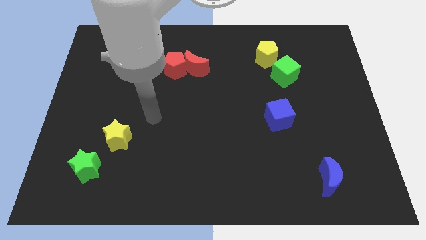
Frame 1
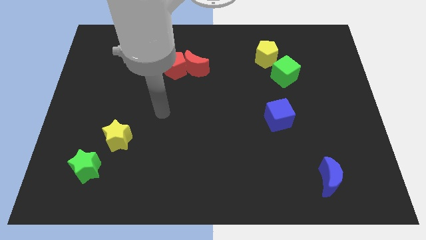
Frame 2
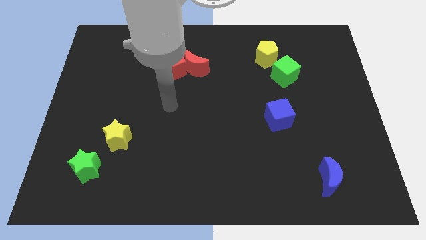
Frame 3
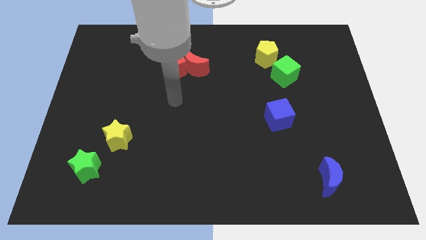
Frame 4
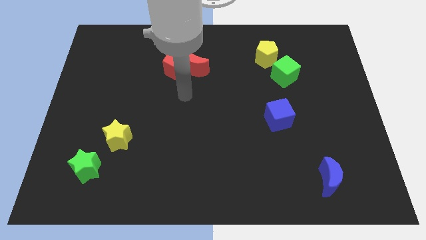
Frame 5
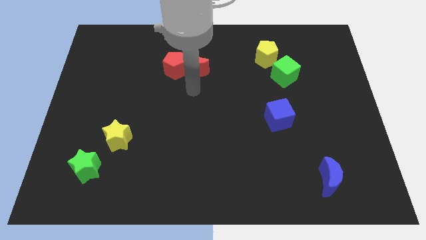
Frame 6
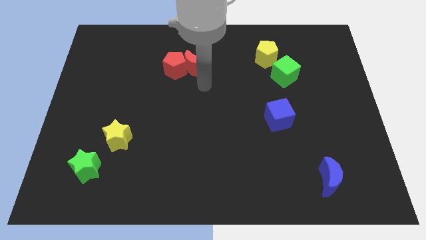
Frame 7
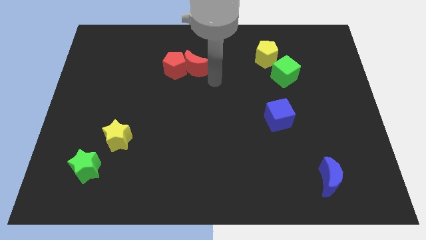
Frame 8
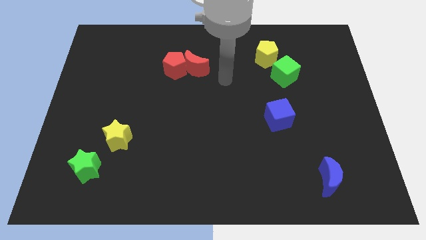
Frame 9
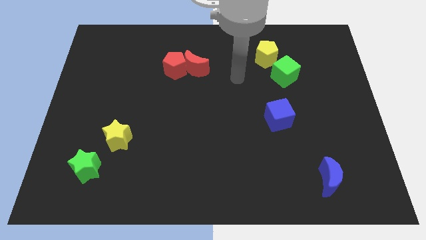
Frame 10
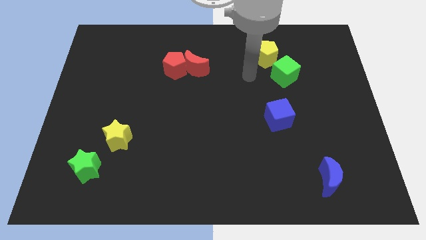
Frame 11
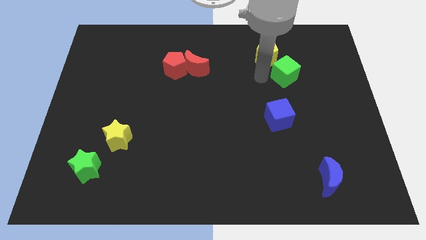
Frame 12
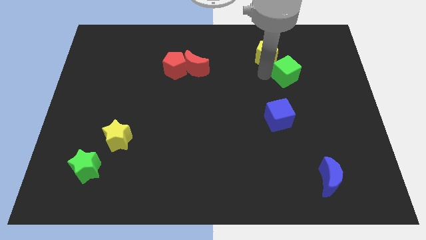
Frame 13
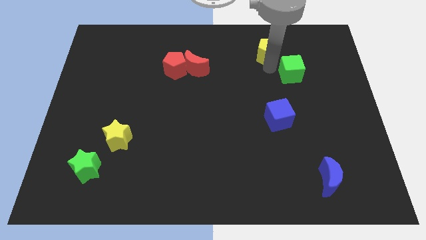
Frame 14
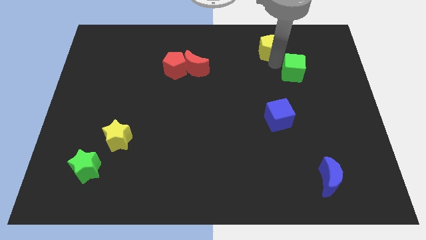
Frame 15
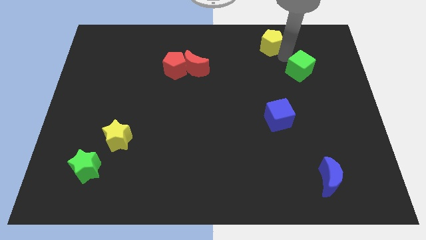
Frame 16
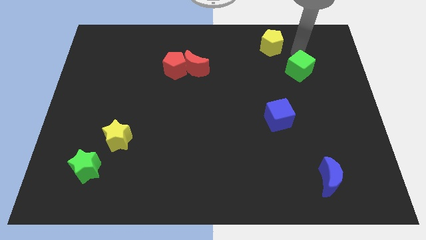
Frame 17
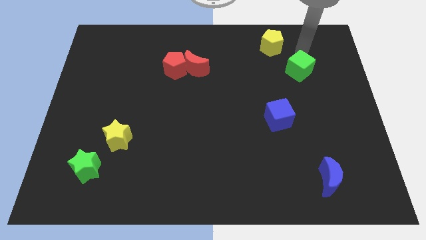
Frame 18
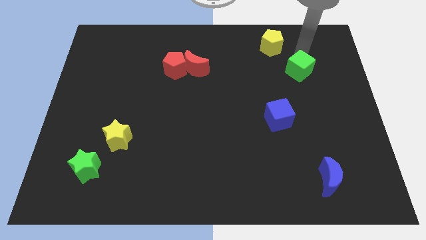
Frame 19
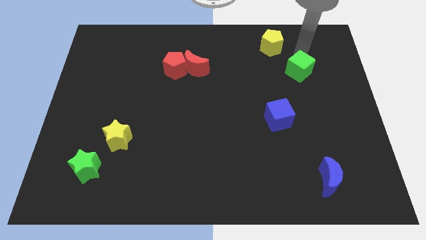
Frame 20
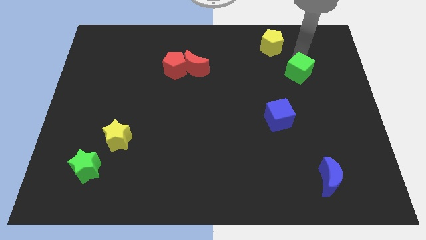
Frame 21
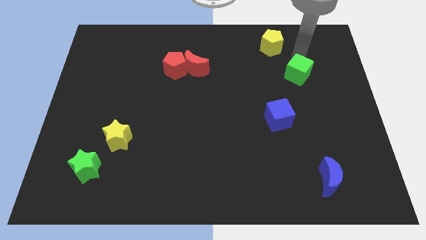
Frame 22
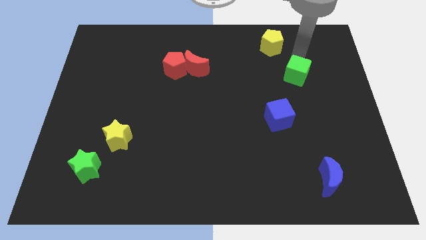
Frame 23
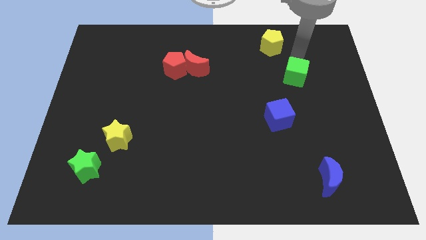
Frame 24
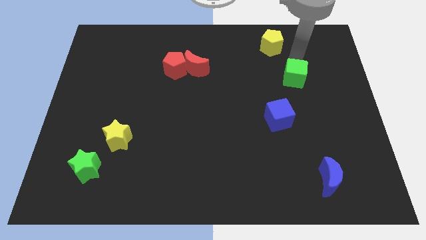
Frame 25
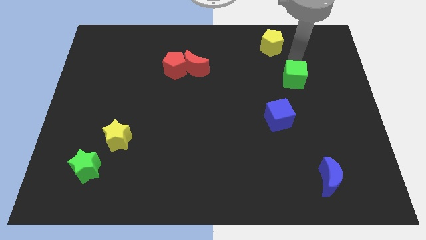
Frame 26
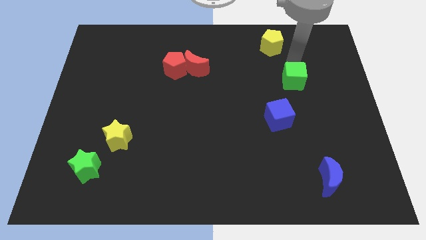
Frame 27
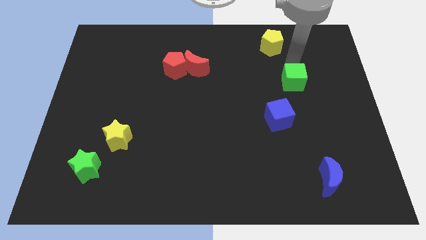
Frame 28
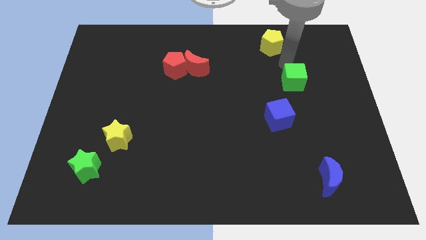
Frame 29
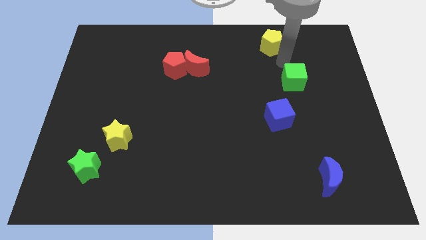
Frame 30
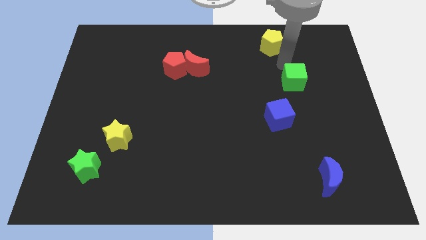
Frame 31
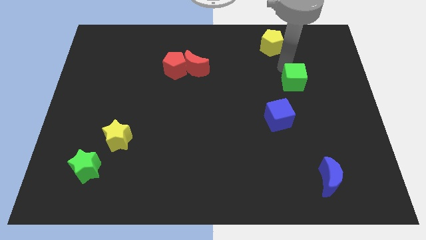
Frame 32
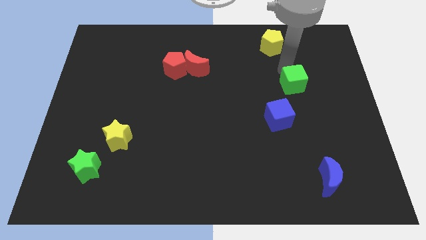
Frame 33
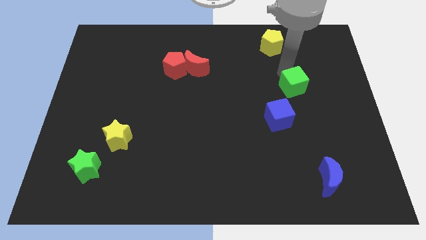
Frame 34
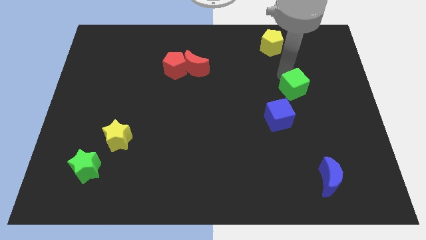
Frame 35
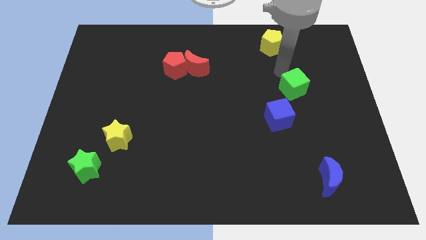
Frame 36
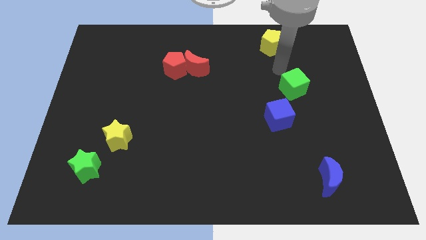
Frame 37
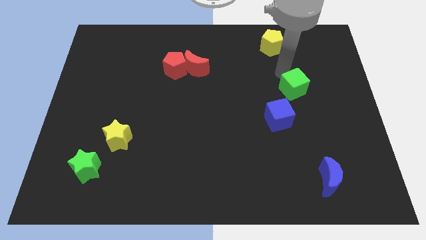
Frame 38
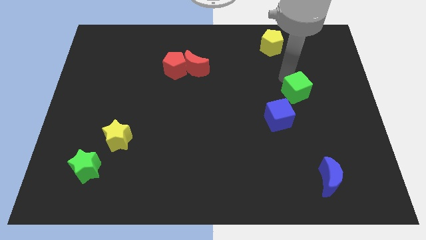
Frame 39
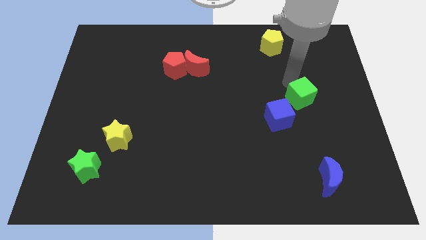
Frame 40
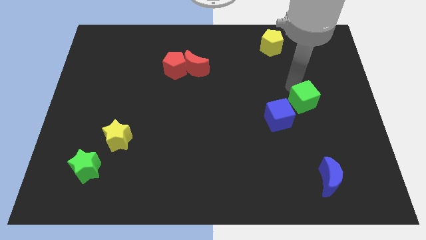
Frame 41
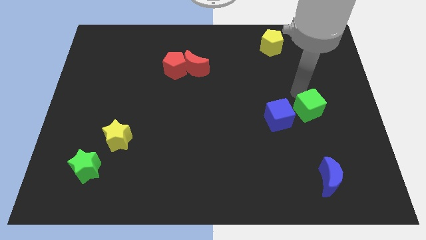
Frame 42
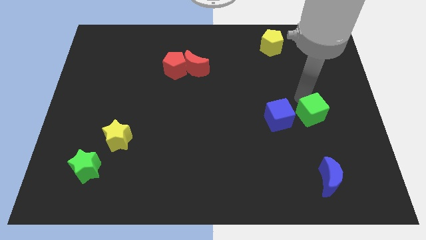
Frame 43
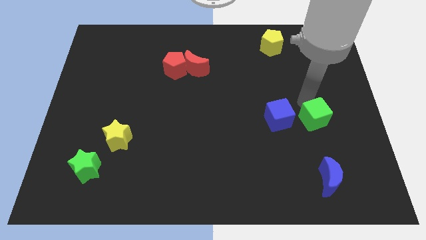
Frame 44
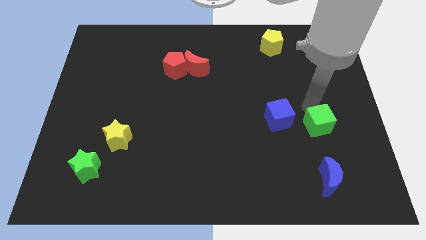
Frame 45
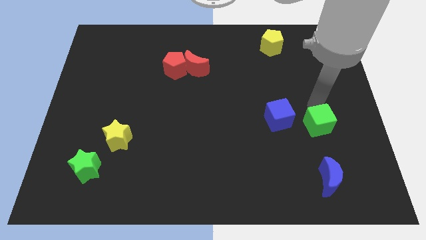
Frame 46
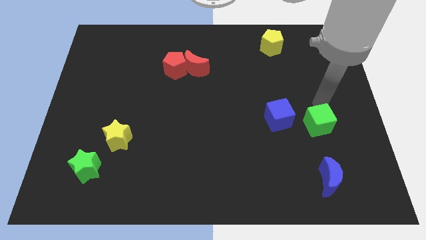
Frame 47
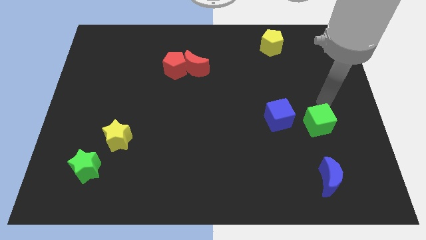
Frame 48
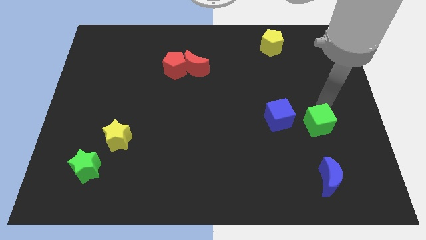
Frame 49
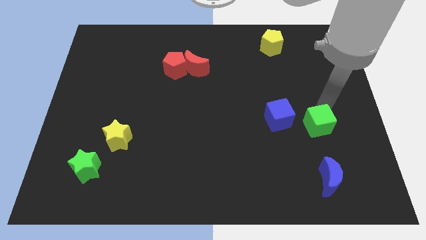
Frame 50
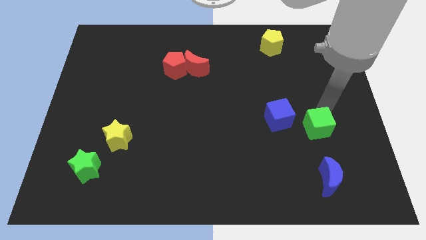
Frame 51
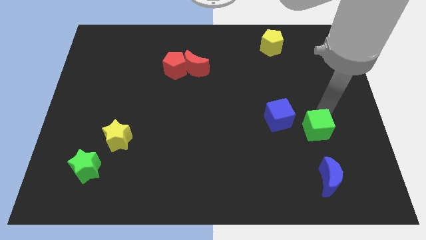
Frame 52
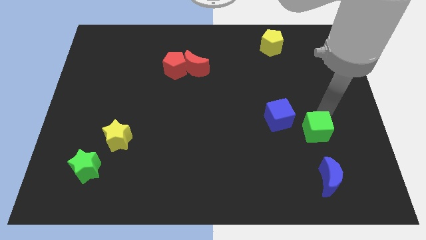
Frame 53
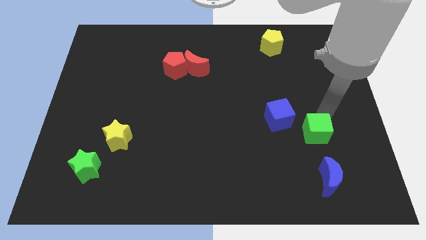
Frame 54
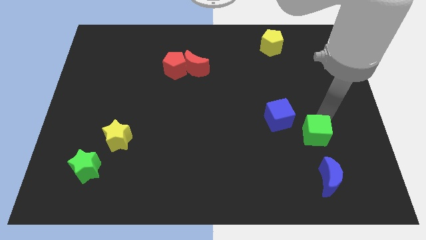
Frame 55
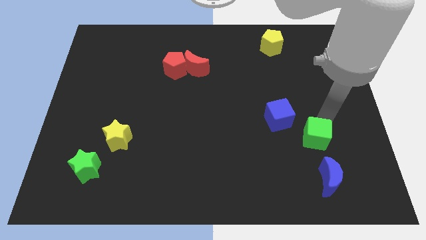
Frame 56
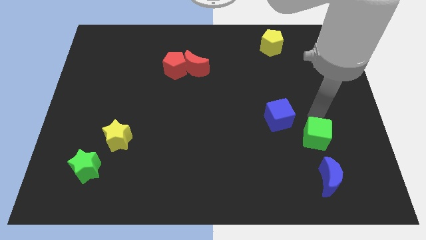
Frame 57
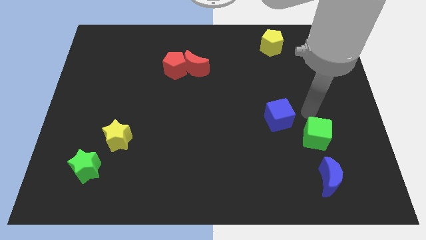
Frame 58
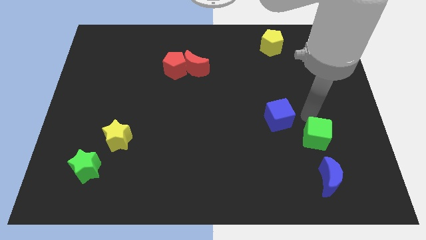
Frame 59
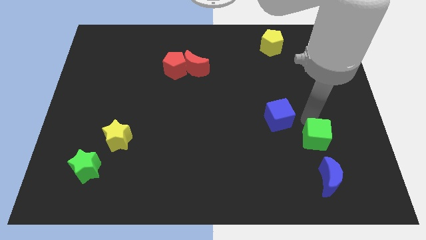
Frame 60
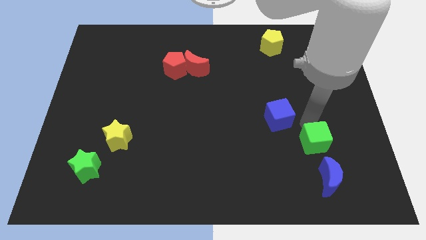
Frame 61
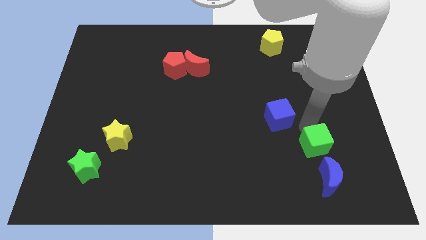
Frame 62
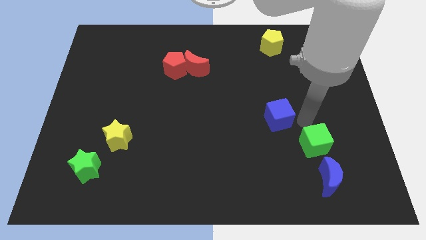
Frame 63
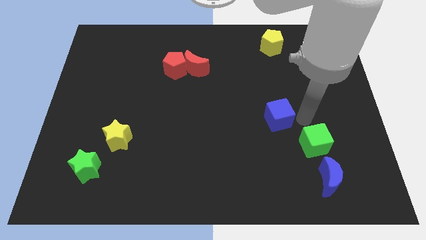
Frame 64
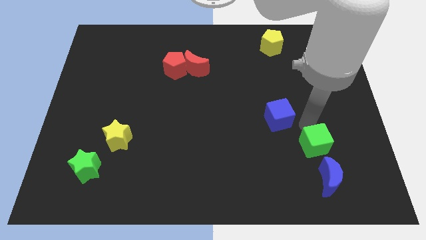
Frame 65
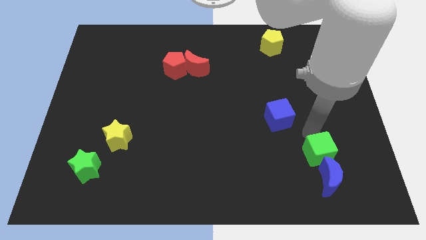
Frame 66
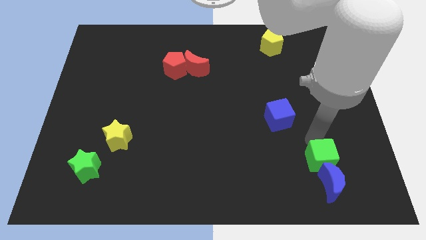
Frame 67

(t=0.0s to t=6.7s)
move the green cube close to the blue moon

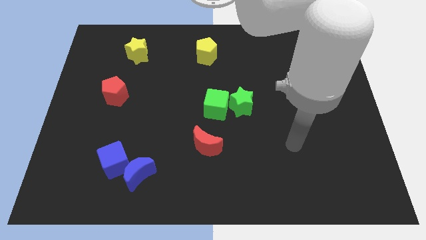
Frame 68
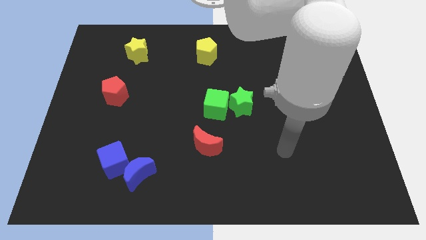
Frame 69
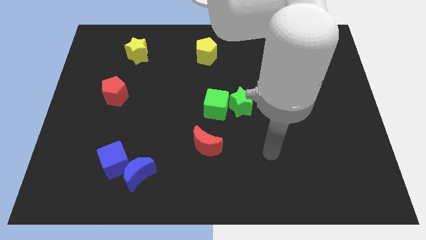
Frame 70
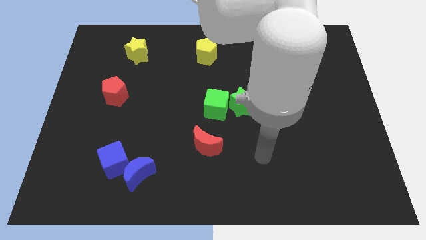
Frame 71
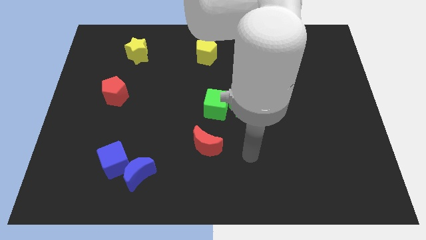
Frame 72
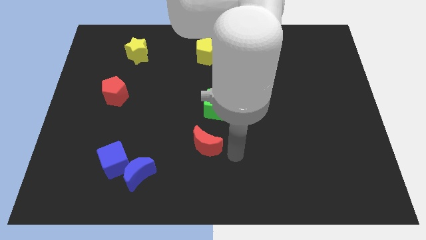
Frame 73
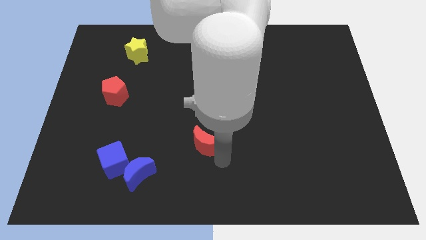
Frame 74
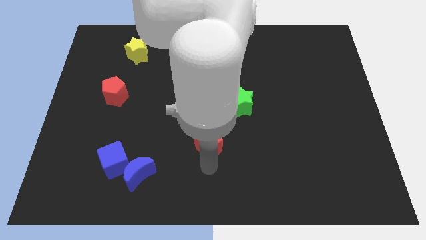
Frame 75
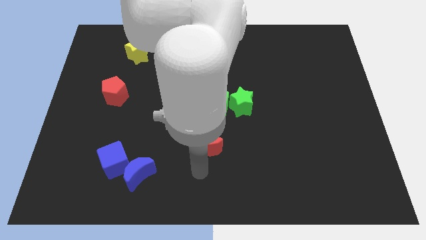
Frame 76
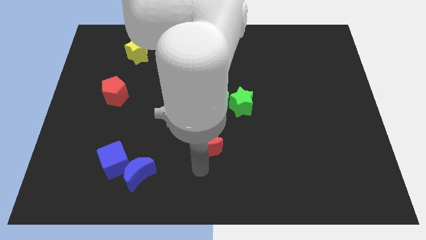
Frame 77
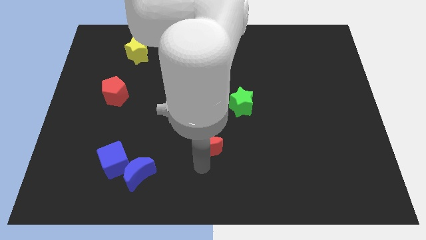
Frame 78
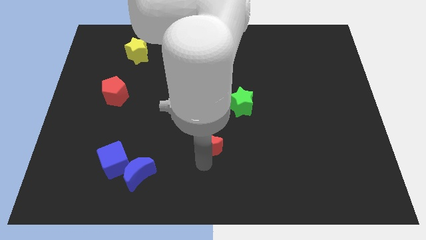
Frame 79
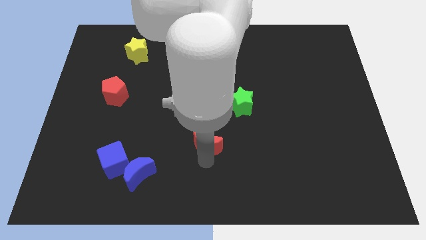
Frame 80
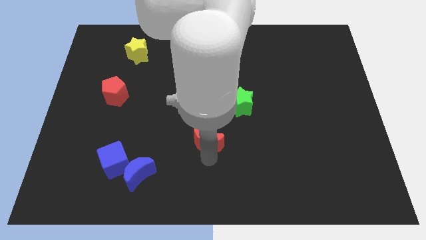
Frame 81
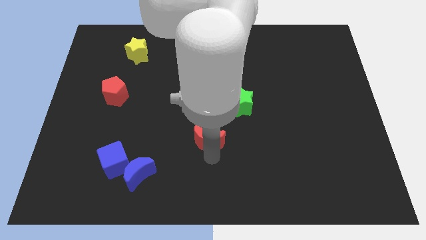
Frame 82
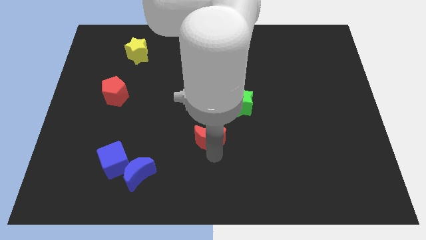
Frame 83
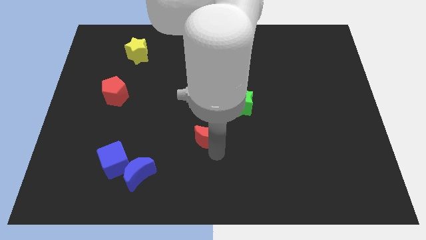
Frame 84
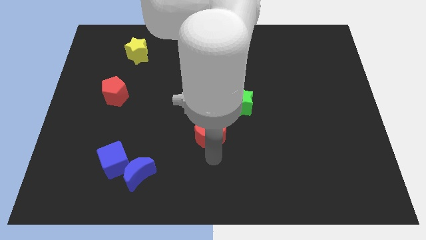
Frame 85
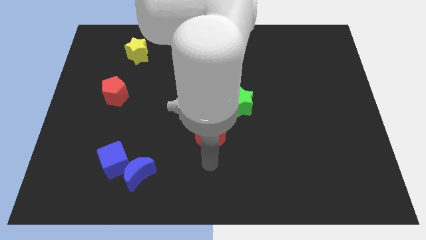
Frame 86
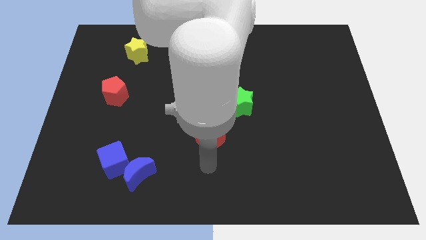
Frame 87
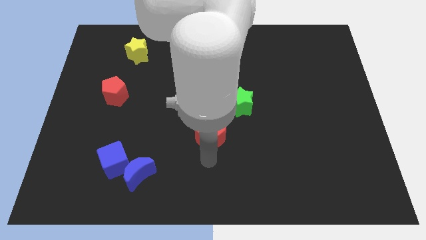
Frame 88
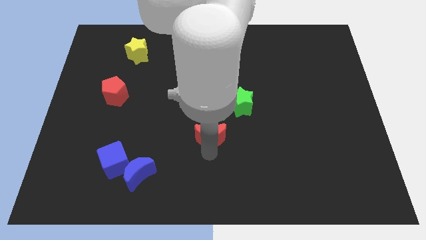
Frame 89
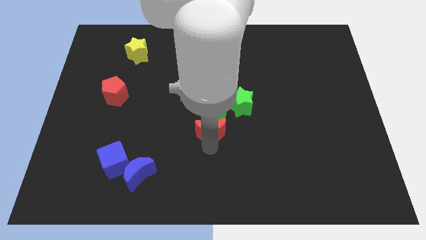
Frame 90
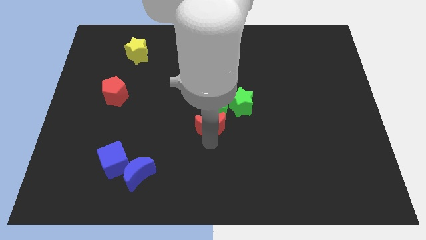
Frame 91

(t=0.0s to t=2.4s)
put the red moon towards the green cube
